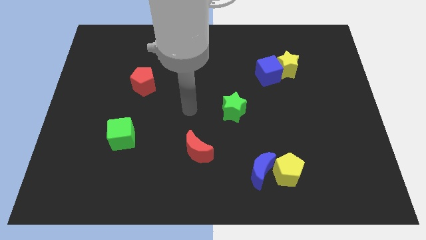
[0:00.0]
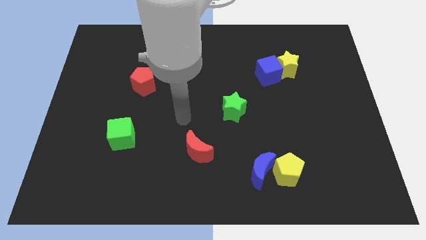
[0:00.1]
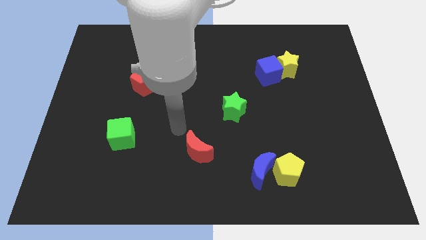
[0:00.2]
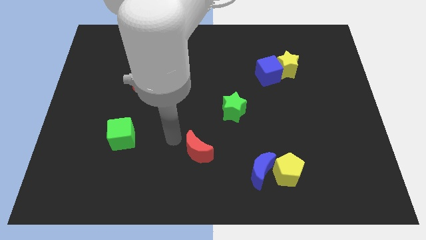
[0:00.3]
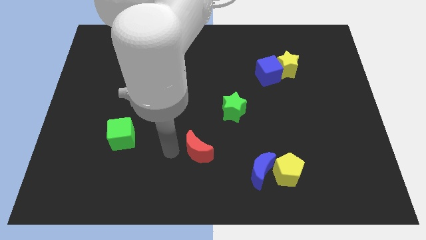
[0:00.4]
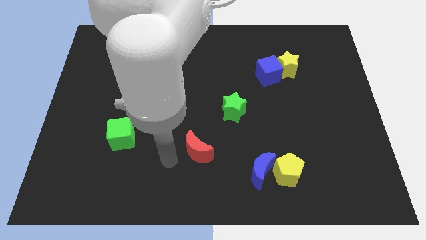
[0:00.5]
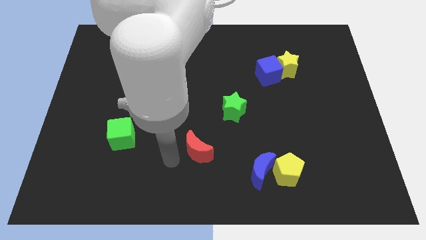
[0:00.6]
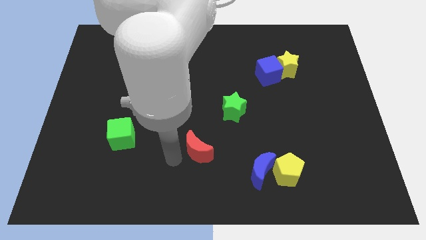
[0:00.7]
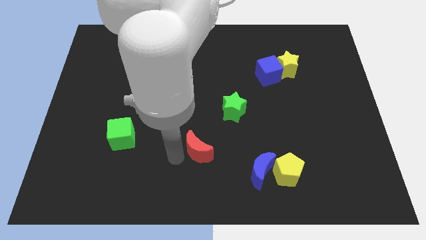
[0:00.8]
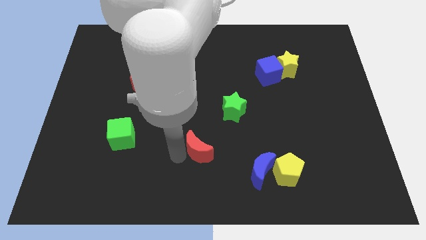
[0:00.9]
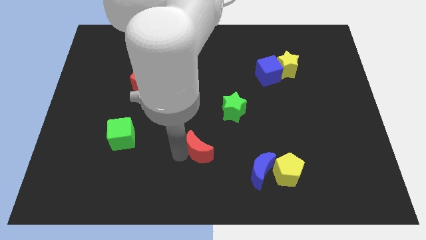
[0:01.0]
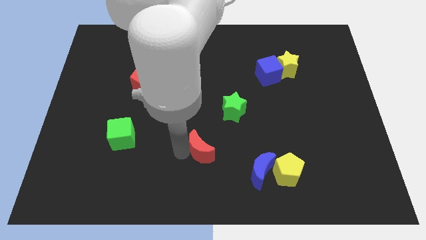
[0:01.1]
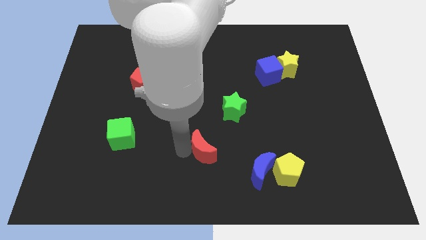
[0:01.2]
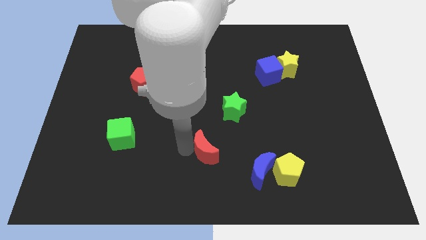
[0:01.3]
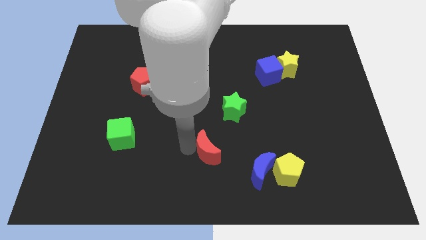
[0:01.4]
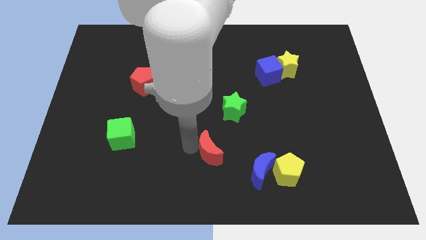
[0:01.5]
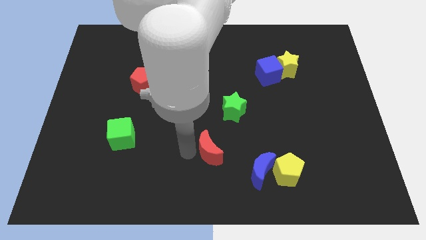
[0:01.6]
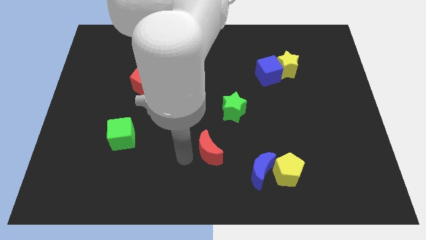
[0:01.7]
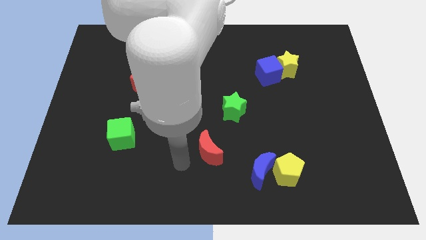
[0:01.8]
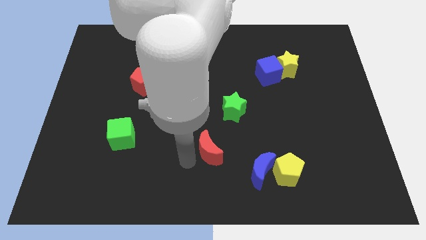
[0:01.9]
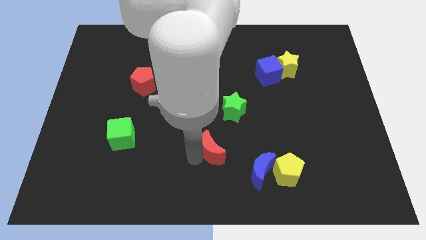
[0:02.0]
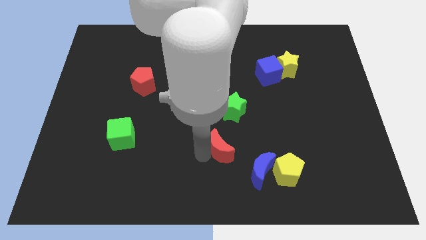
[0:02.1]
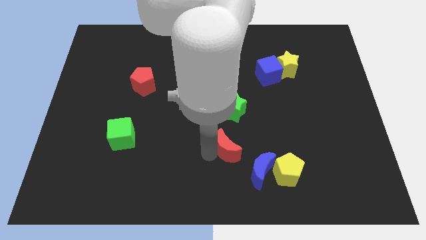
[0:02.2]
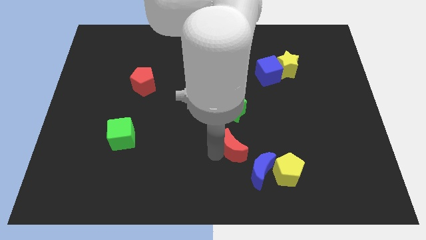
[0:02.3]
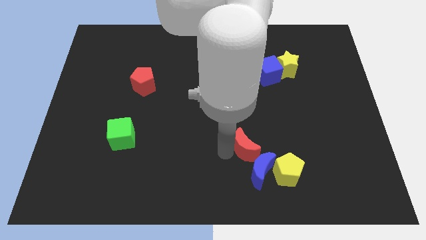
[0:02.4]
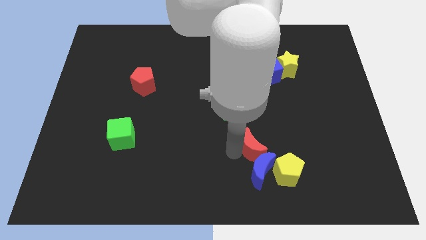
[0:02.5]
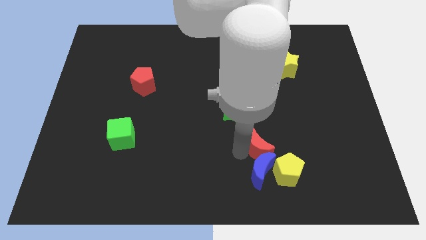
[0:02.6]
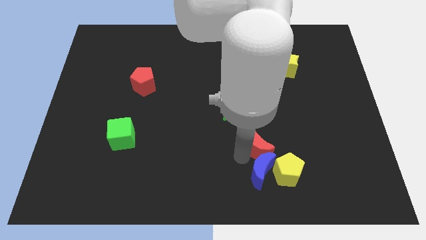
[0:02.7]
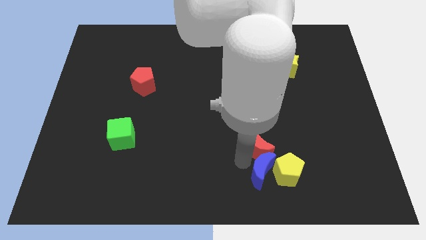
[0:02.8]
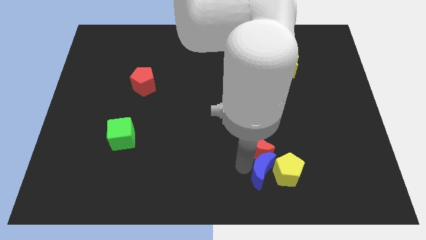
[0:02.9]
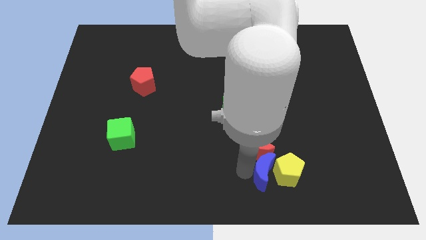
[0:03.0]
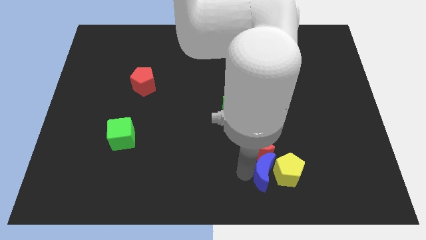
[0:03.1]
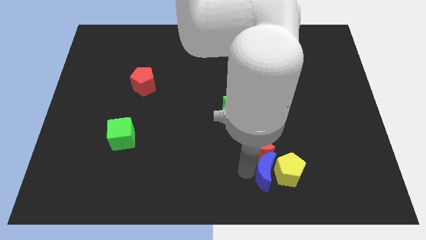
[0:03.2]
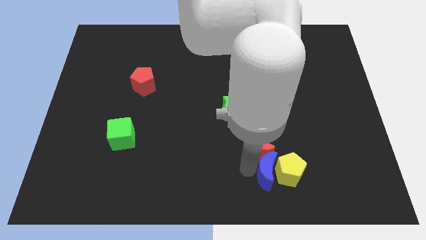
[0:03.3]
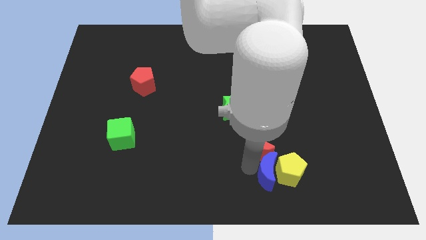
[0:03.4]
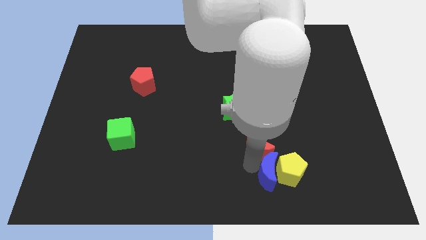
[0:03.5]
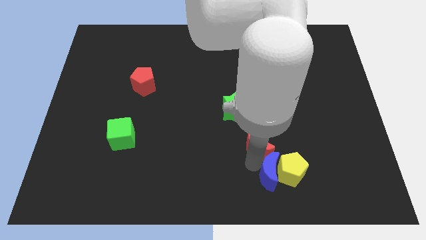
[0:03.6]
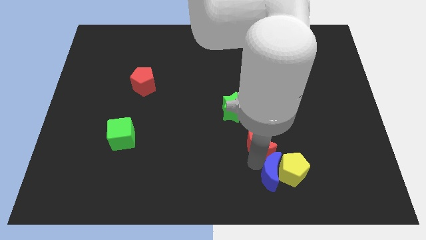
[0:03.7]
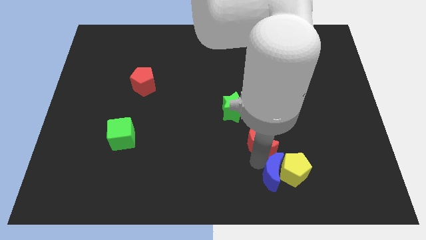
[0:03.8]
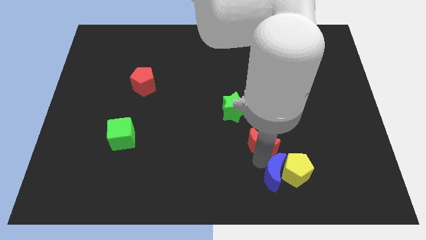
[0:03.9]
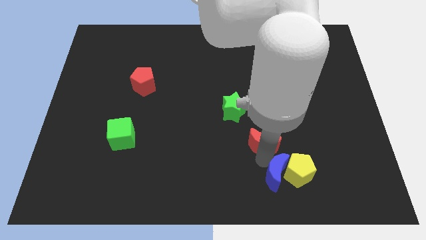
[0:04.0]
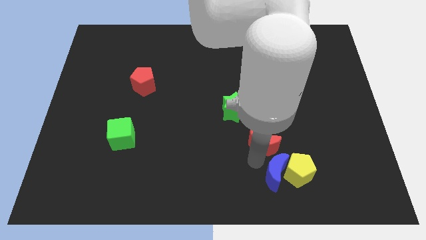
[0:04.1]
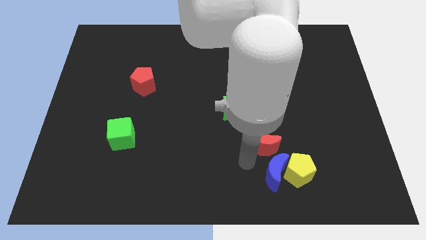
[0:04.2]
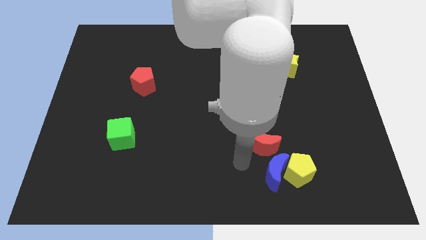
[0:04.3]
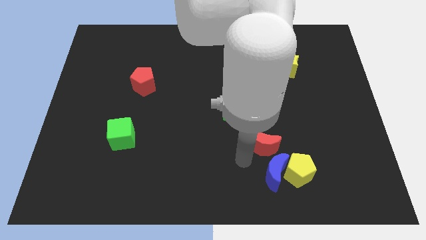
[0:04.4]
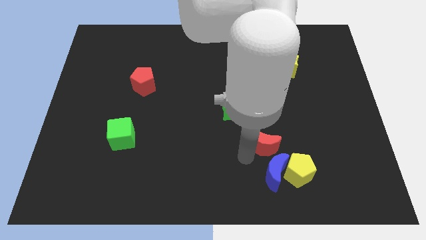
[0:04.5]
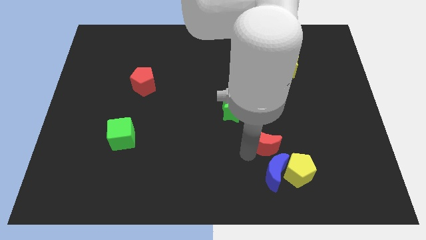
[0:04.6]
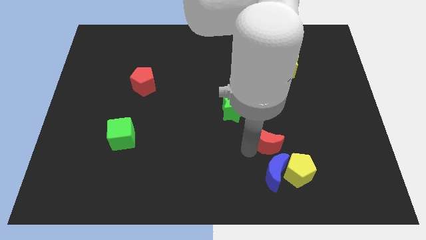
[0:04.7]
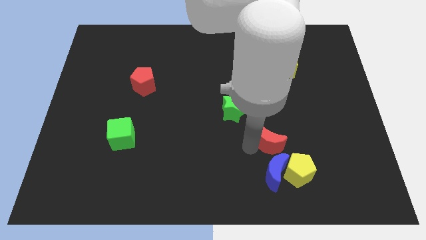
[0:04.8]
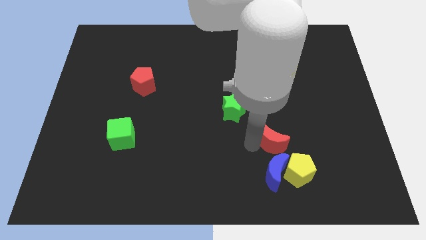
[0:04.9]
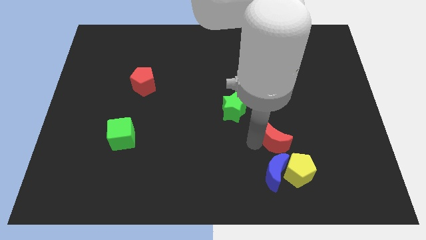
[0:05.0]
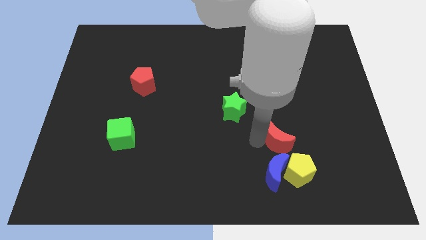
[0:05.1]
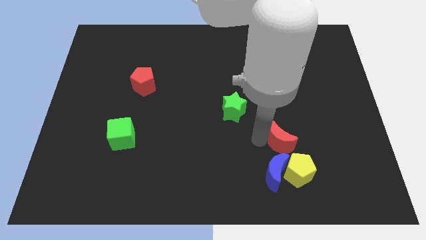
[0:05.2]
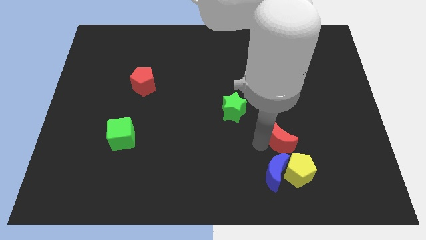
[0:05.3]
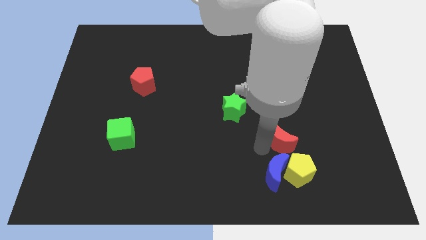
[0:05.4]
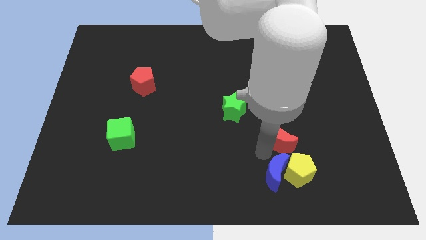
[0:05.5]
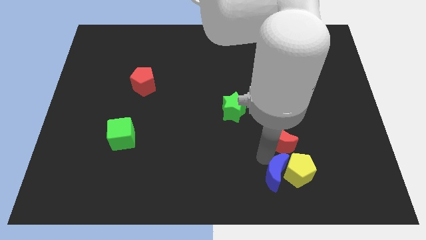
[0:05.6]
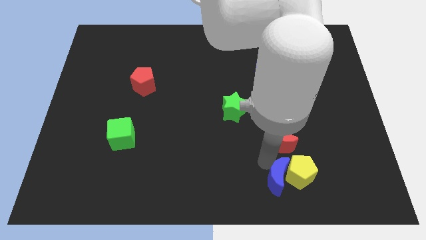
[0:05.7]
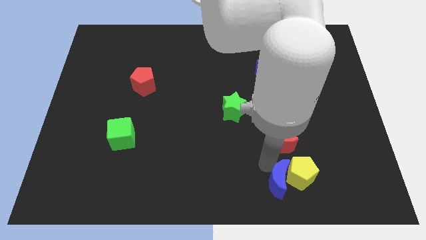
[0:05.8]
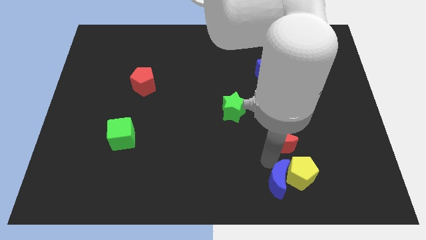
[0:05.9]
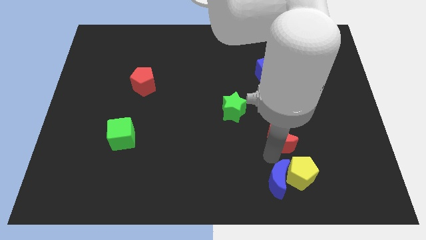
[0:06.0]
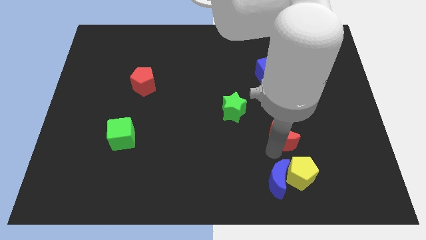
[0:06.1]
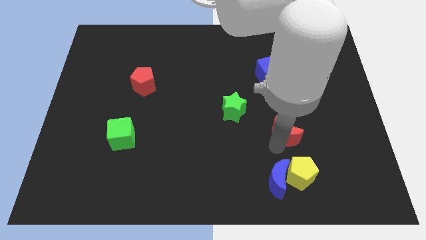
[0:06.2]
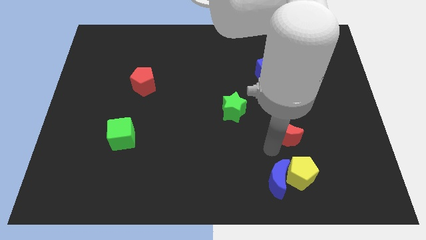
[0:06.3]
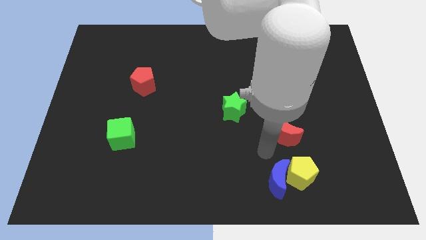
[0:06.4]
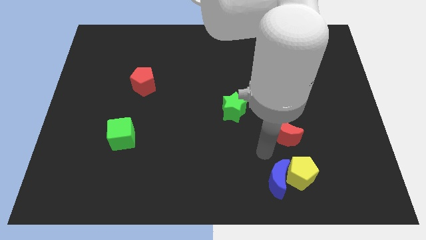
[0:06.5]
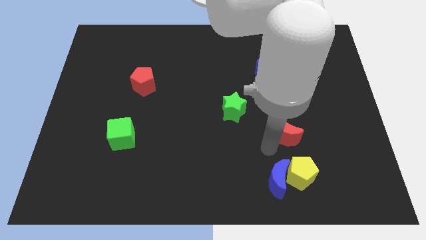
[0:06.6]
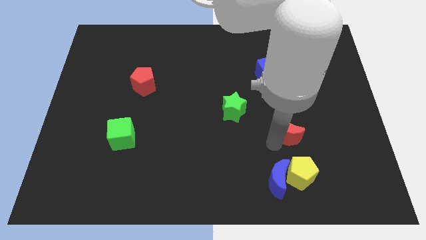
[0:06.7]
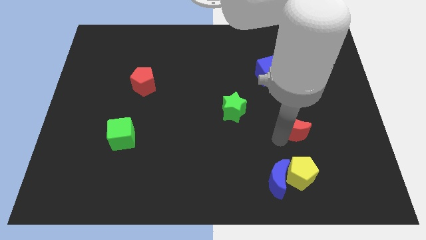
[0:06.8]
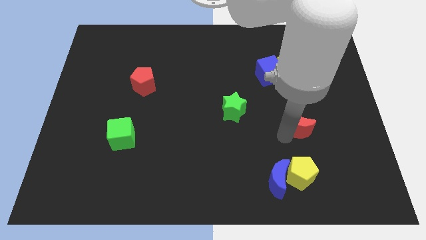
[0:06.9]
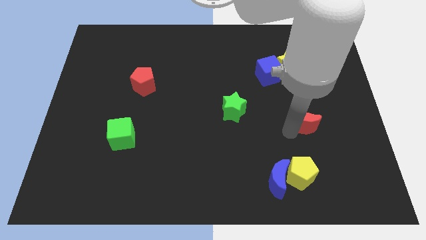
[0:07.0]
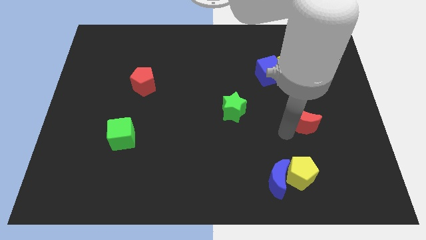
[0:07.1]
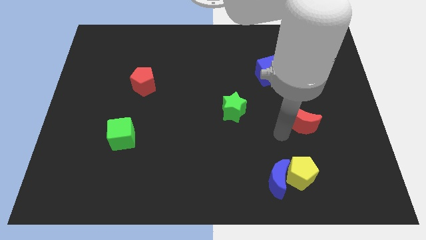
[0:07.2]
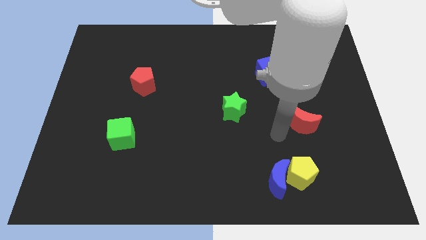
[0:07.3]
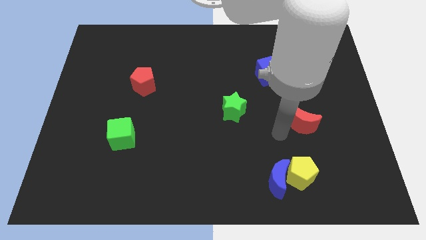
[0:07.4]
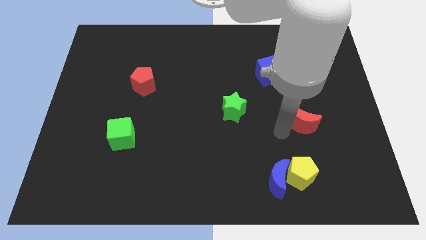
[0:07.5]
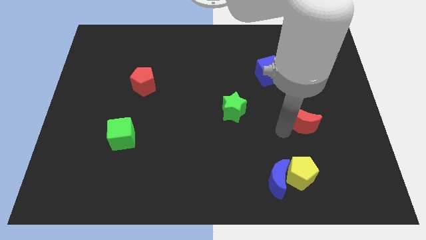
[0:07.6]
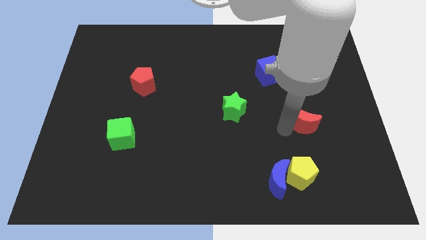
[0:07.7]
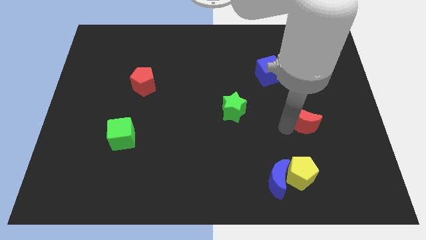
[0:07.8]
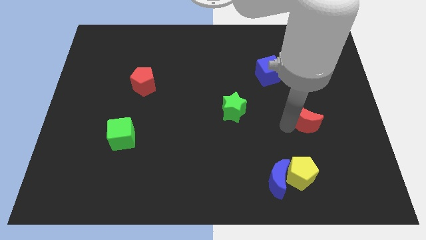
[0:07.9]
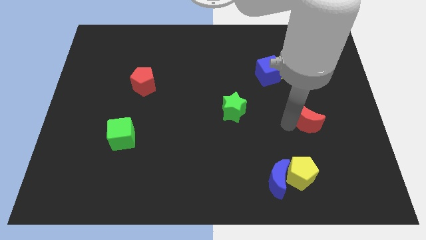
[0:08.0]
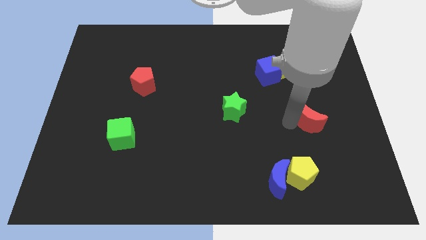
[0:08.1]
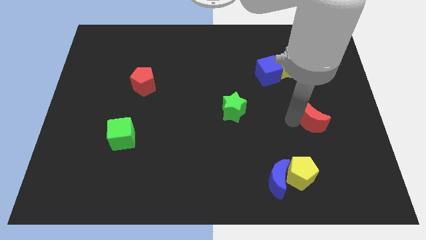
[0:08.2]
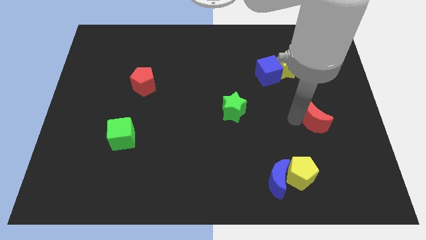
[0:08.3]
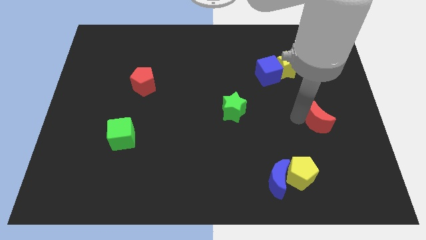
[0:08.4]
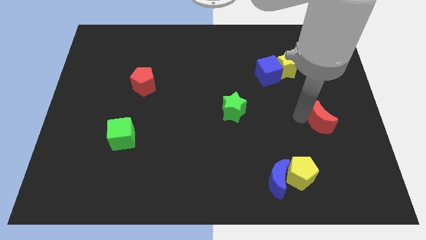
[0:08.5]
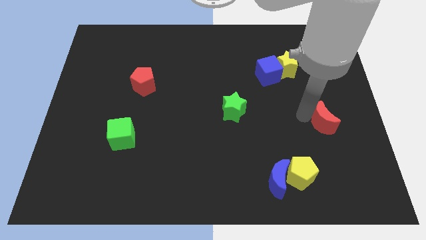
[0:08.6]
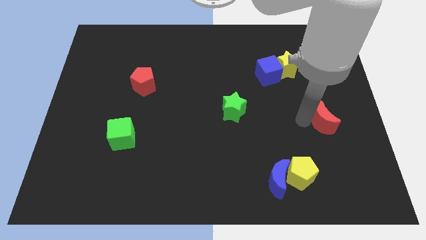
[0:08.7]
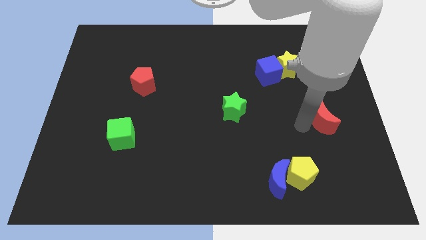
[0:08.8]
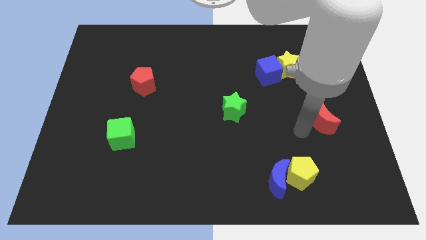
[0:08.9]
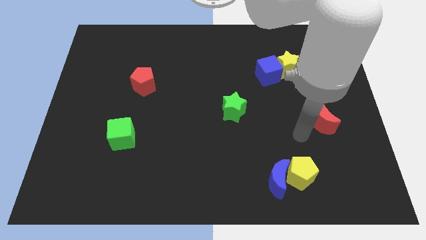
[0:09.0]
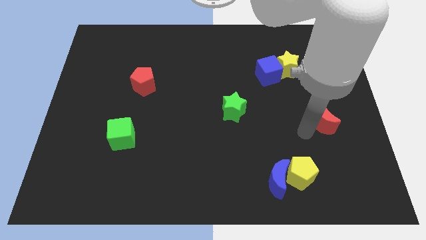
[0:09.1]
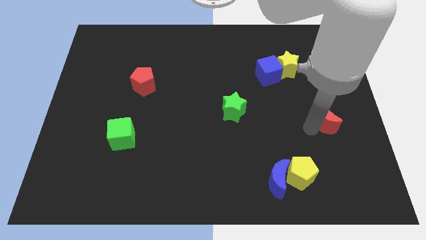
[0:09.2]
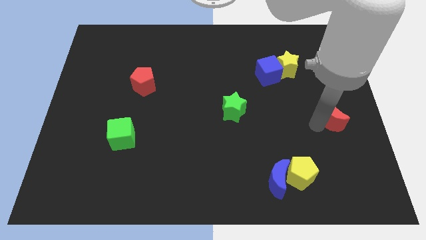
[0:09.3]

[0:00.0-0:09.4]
move the red moon to the center right
